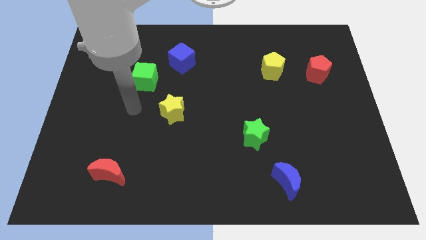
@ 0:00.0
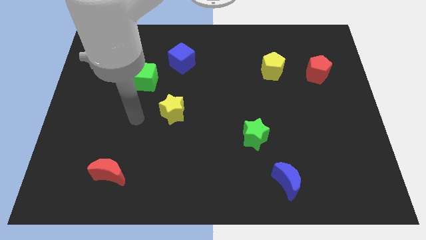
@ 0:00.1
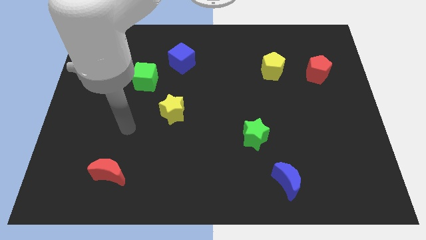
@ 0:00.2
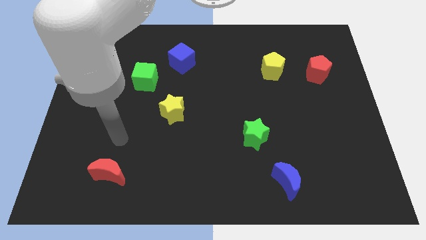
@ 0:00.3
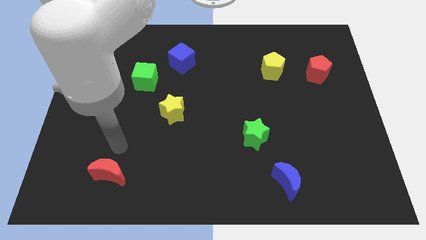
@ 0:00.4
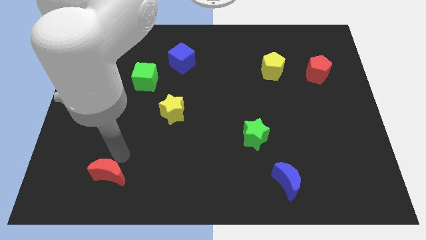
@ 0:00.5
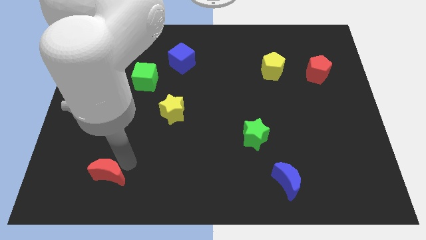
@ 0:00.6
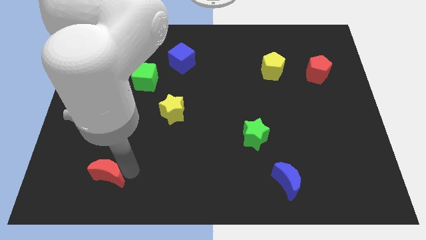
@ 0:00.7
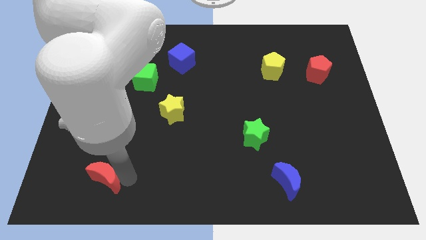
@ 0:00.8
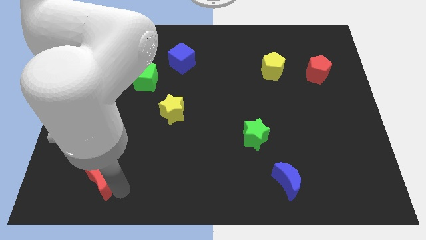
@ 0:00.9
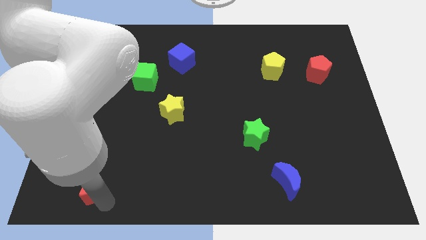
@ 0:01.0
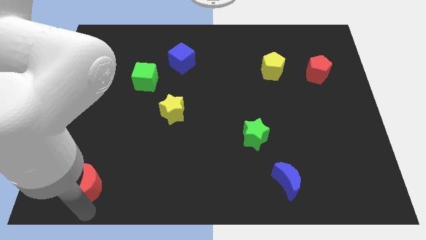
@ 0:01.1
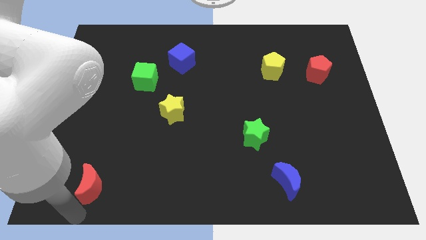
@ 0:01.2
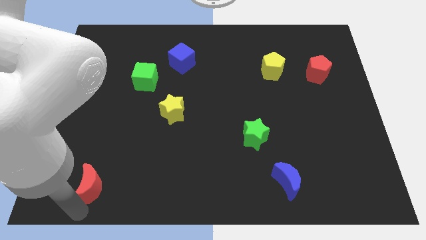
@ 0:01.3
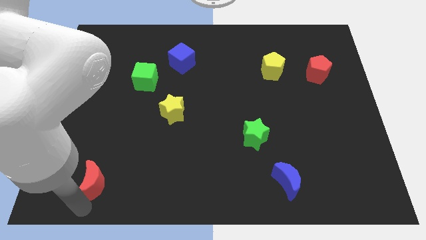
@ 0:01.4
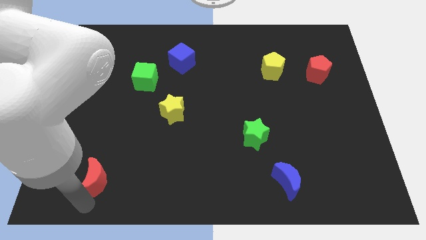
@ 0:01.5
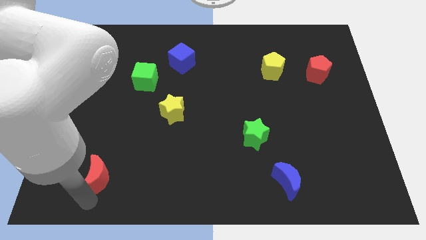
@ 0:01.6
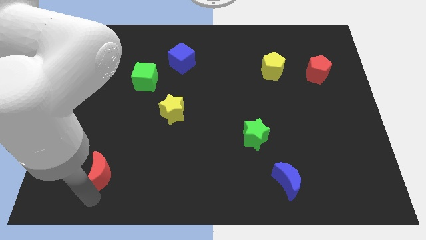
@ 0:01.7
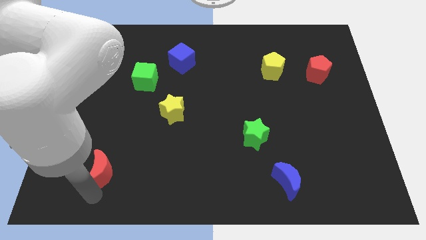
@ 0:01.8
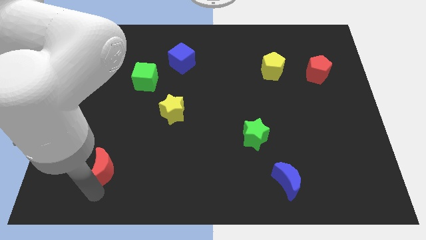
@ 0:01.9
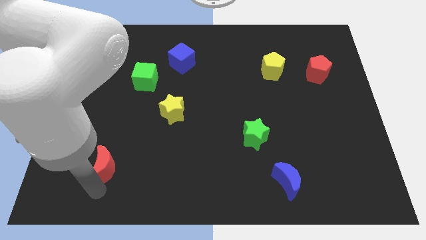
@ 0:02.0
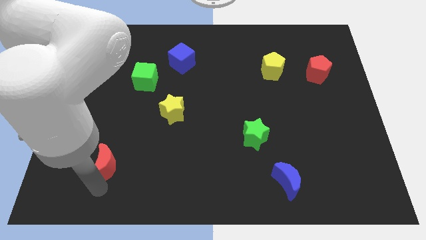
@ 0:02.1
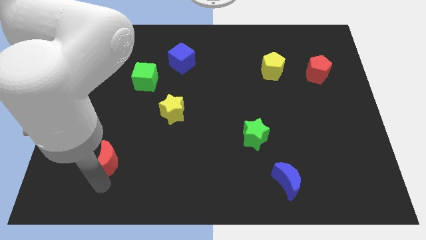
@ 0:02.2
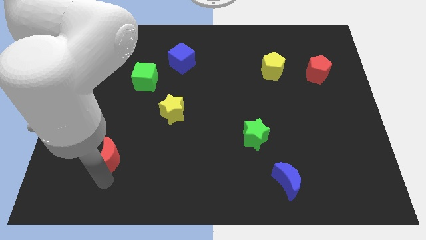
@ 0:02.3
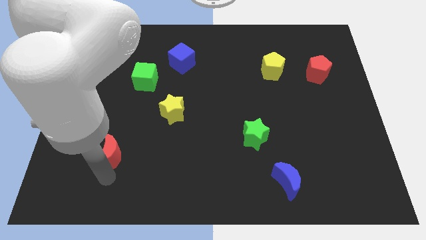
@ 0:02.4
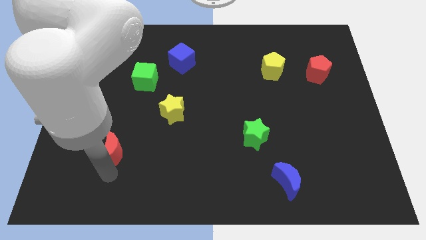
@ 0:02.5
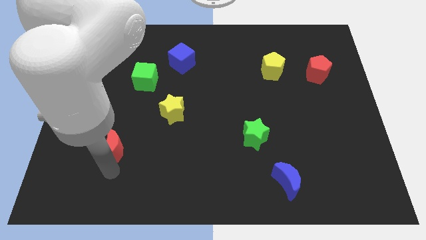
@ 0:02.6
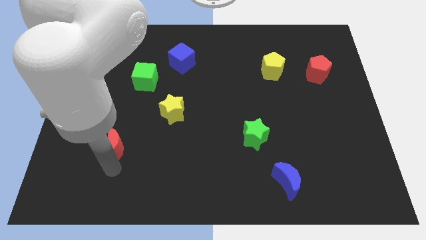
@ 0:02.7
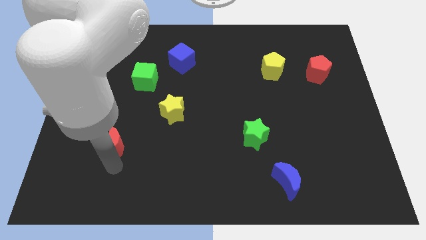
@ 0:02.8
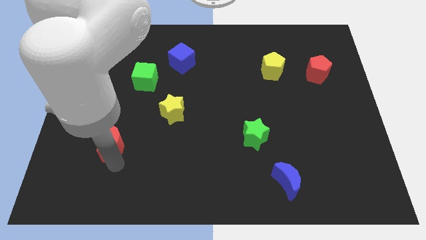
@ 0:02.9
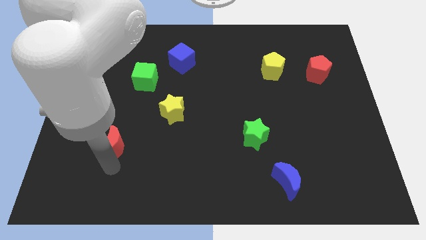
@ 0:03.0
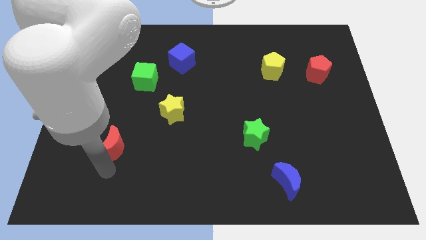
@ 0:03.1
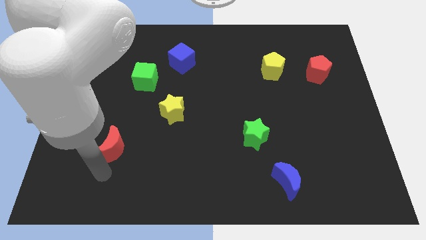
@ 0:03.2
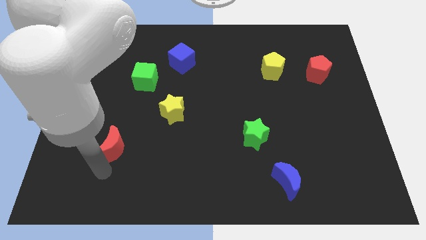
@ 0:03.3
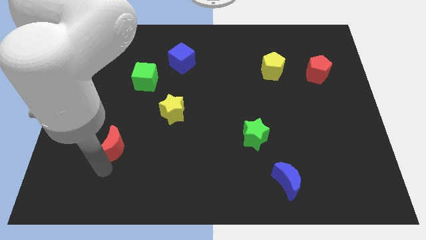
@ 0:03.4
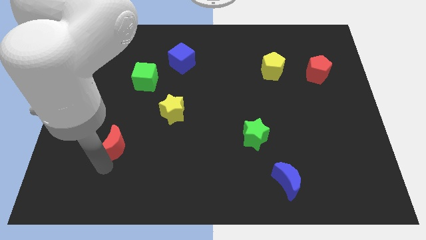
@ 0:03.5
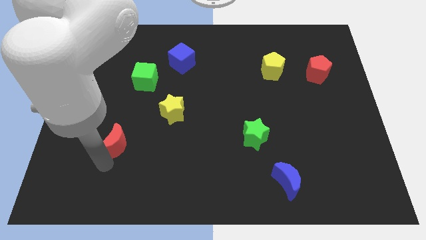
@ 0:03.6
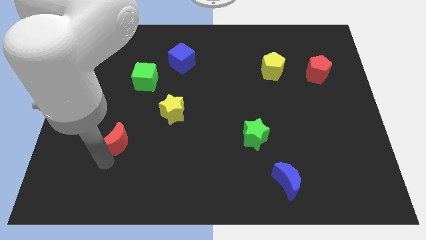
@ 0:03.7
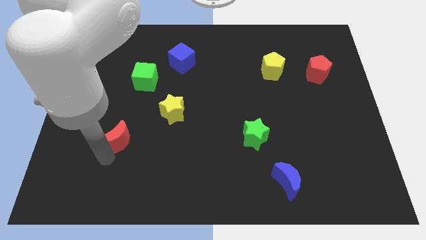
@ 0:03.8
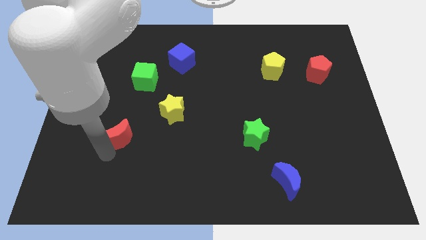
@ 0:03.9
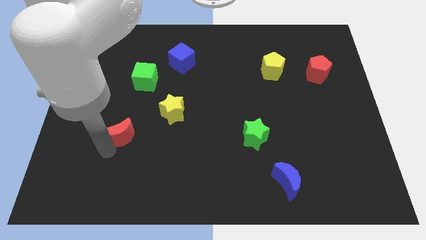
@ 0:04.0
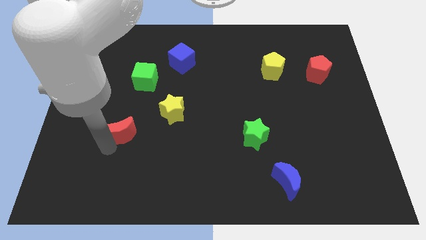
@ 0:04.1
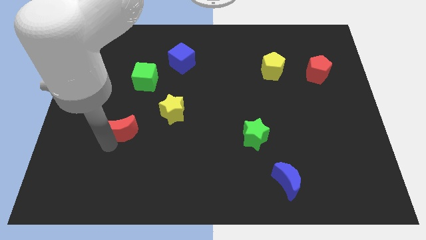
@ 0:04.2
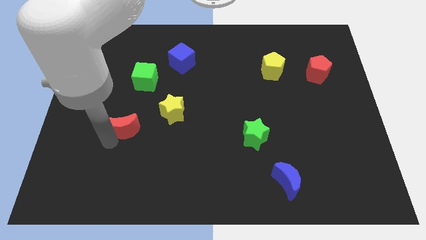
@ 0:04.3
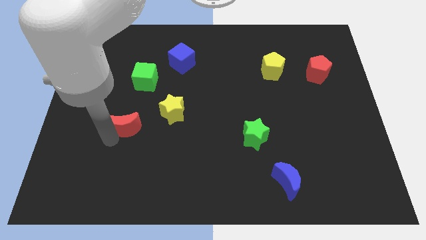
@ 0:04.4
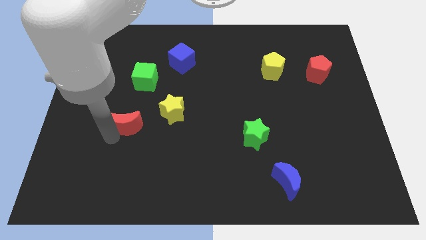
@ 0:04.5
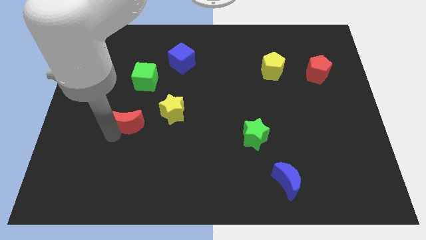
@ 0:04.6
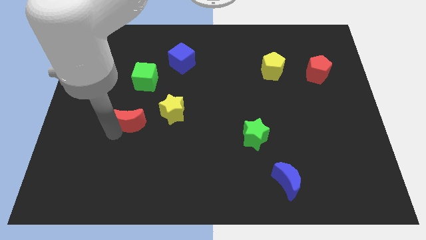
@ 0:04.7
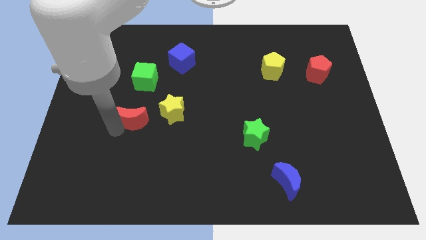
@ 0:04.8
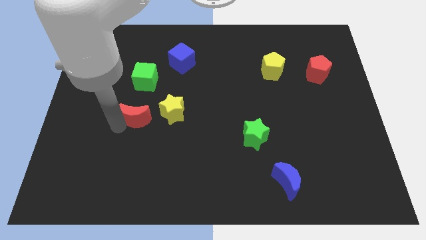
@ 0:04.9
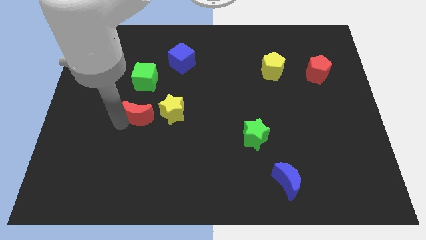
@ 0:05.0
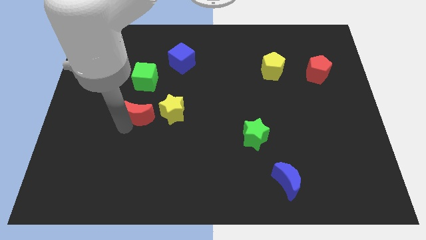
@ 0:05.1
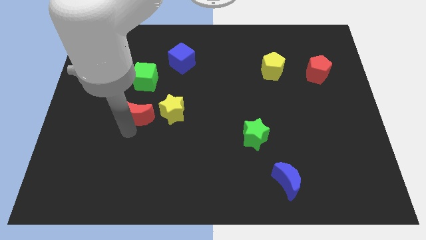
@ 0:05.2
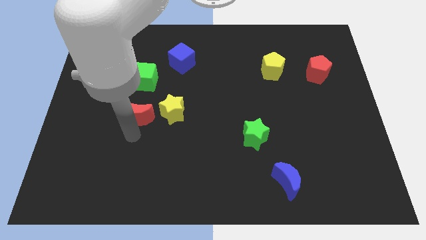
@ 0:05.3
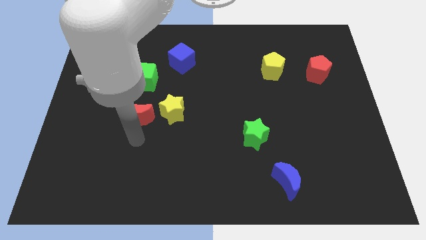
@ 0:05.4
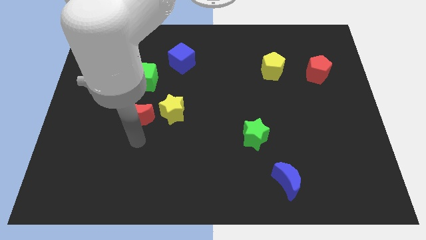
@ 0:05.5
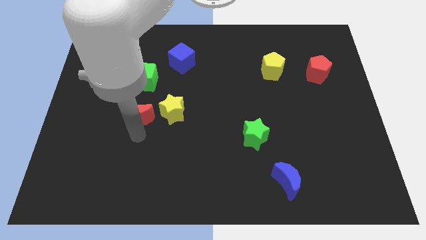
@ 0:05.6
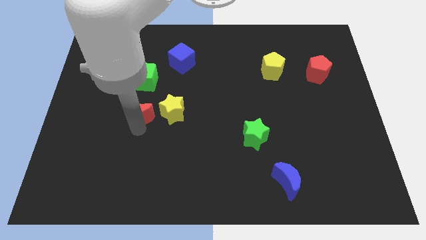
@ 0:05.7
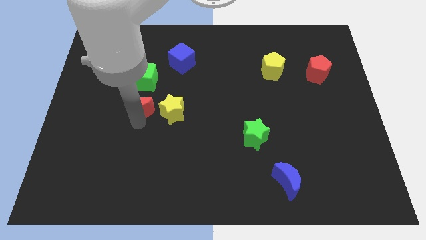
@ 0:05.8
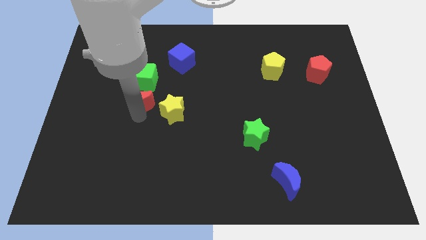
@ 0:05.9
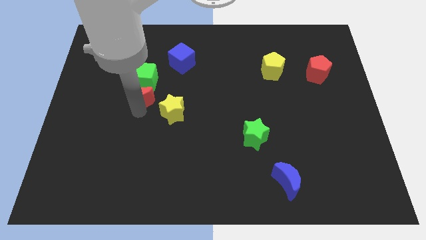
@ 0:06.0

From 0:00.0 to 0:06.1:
move the red moon to the green cube

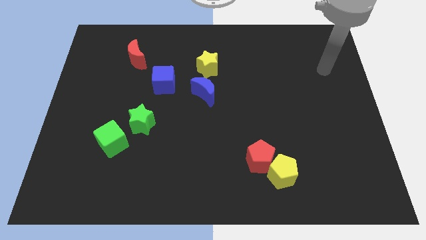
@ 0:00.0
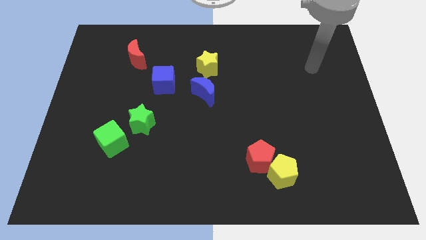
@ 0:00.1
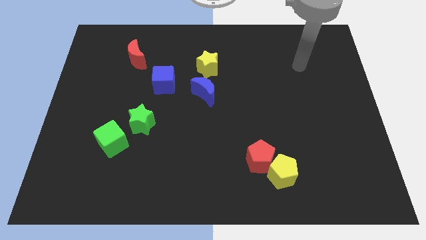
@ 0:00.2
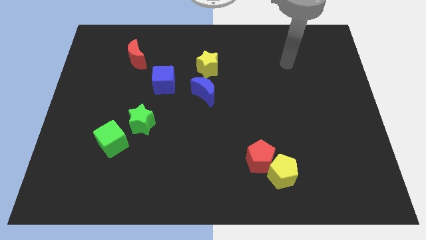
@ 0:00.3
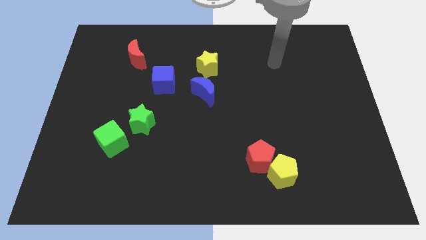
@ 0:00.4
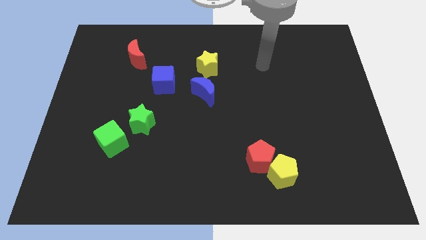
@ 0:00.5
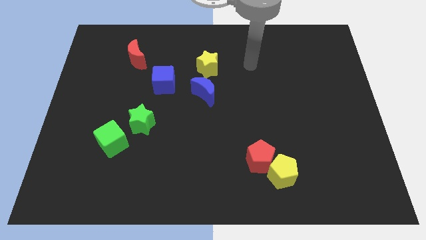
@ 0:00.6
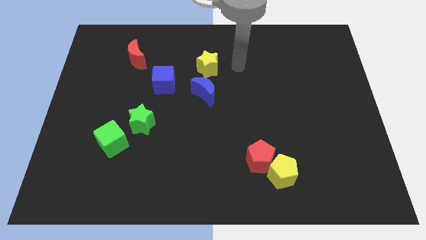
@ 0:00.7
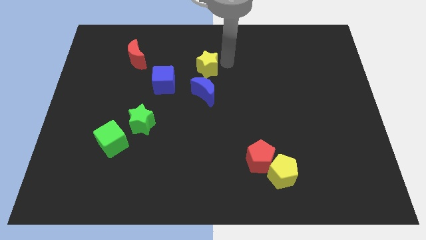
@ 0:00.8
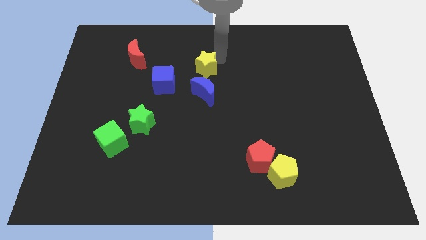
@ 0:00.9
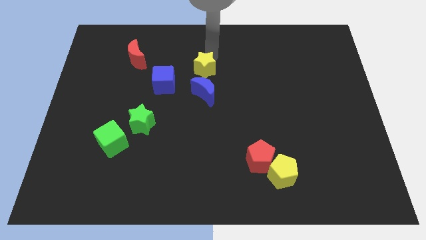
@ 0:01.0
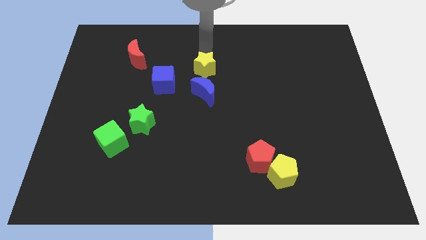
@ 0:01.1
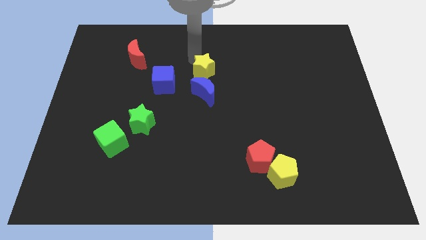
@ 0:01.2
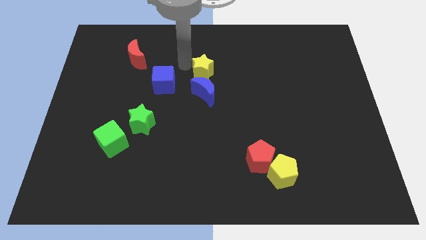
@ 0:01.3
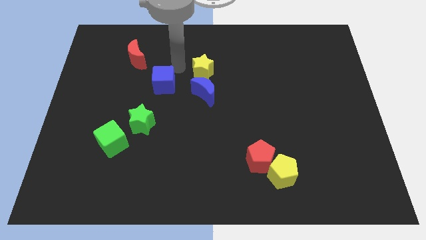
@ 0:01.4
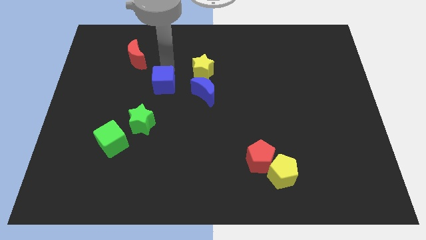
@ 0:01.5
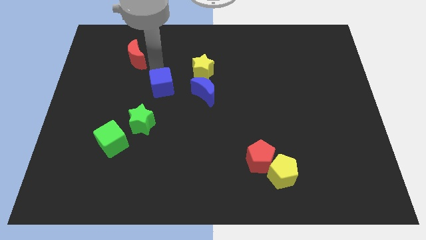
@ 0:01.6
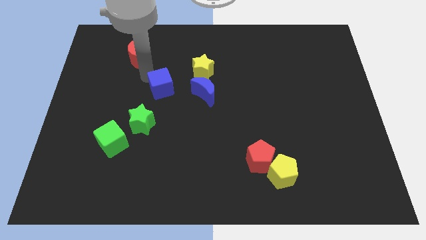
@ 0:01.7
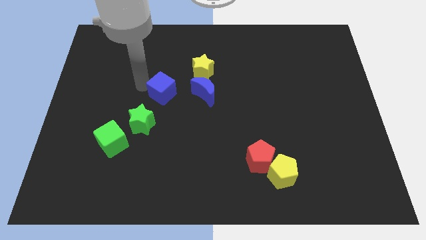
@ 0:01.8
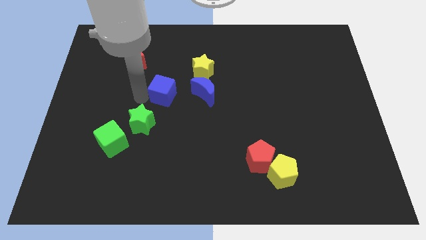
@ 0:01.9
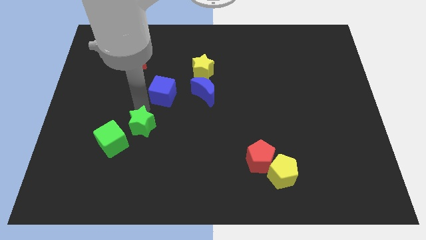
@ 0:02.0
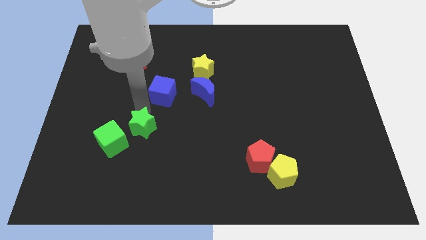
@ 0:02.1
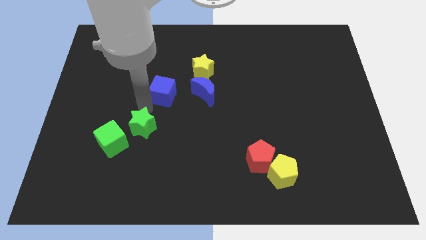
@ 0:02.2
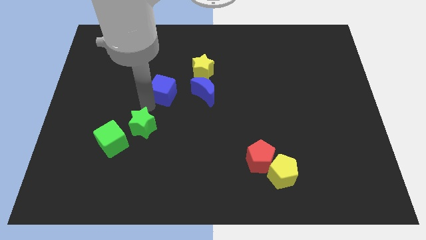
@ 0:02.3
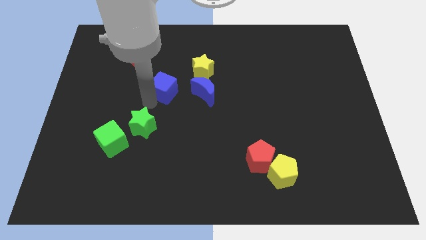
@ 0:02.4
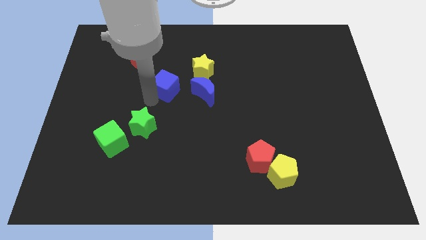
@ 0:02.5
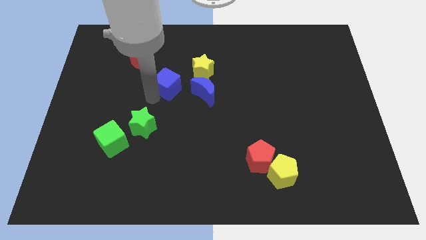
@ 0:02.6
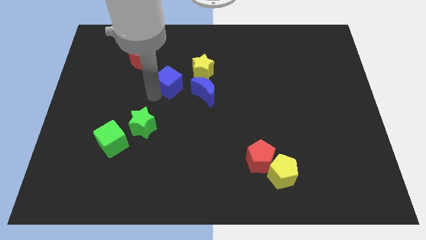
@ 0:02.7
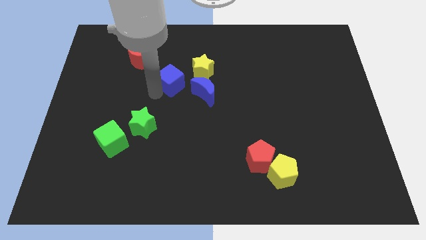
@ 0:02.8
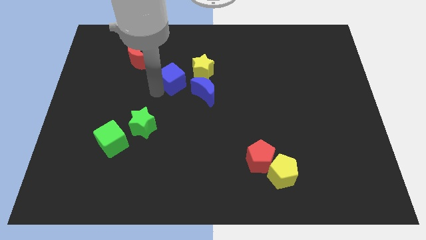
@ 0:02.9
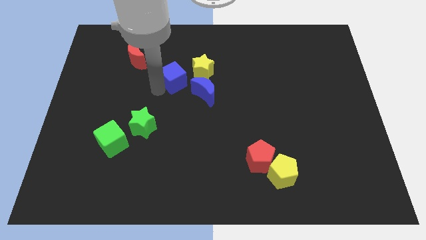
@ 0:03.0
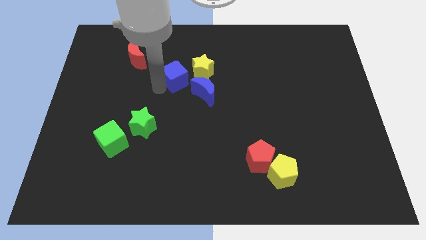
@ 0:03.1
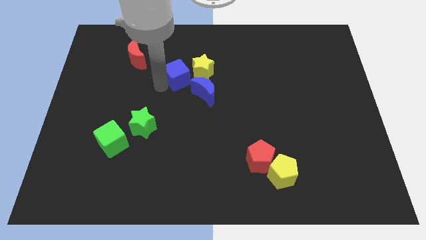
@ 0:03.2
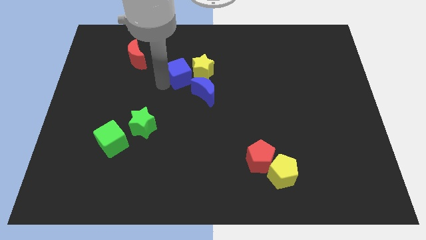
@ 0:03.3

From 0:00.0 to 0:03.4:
push the blue cube to the yellow star
